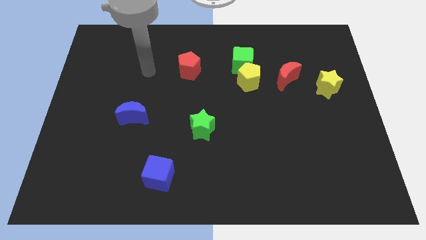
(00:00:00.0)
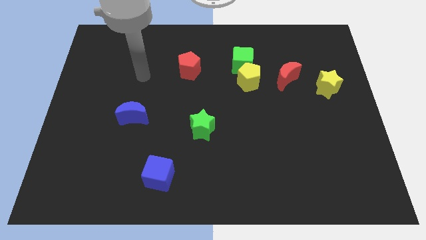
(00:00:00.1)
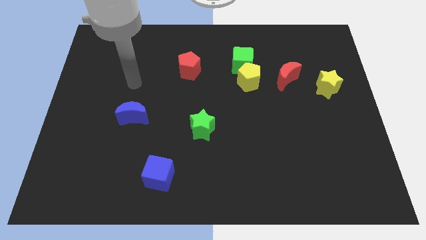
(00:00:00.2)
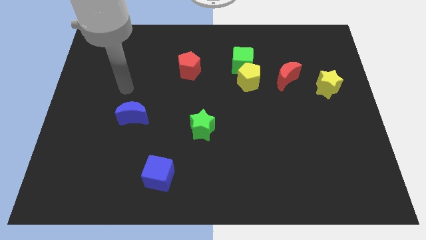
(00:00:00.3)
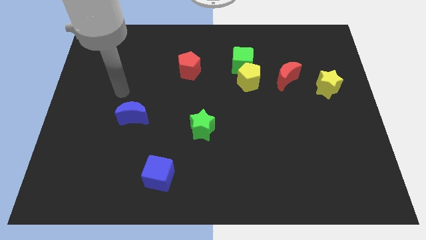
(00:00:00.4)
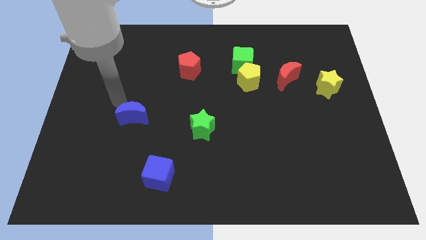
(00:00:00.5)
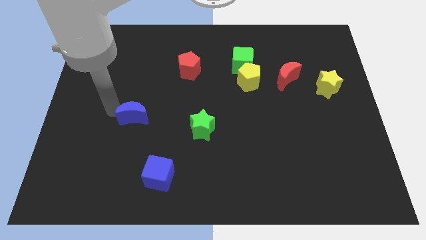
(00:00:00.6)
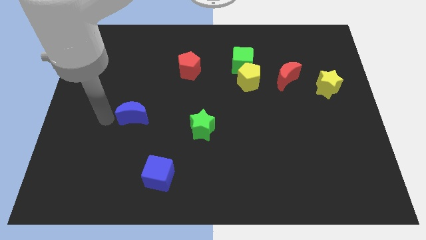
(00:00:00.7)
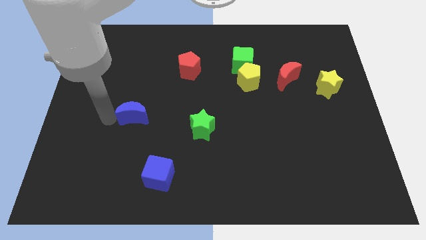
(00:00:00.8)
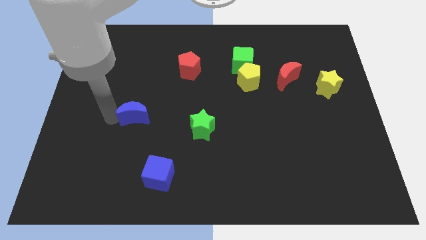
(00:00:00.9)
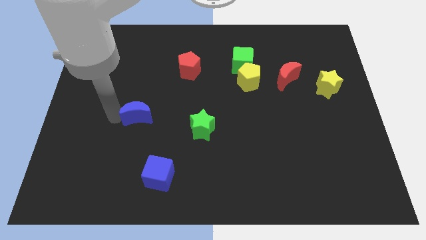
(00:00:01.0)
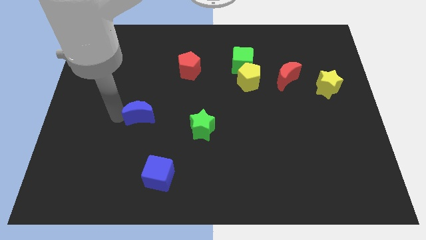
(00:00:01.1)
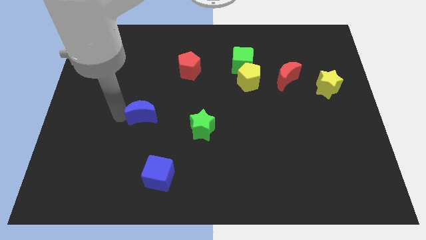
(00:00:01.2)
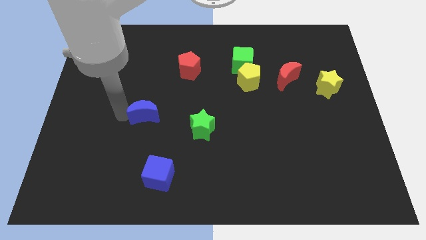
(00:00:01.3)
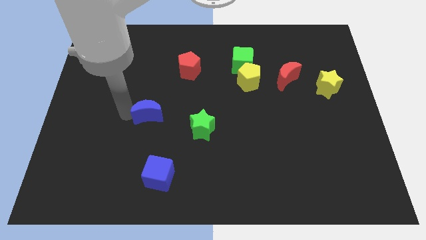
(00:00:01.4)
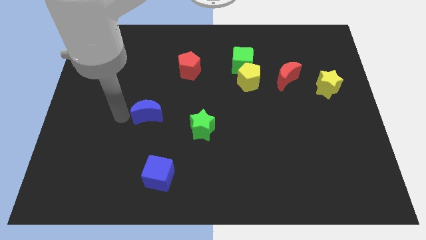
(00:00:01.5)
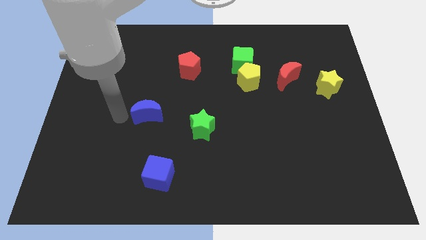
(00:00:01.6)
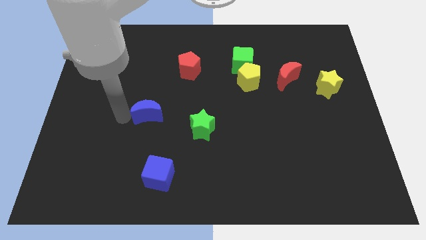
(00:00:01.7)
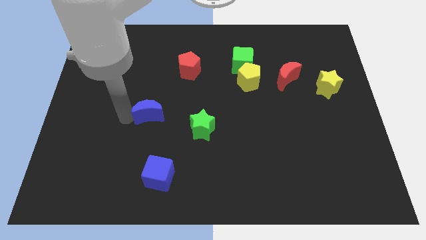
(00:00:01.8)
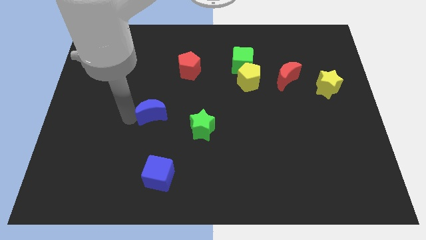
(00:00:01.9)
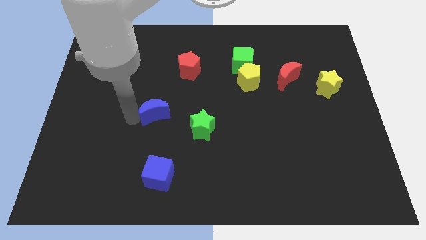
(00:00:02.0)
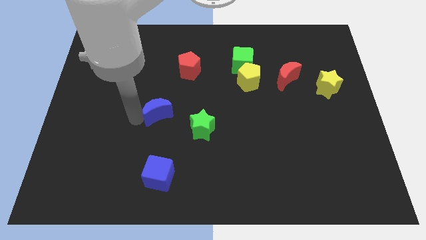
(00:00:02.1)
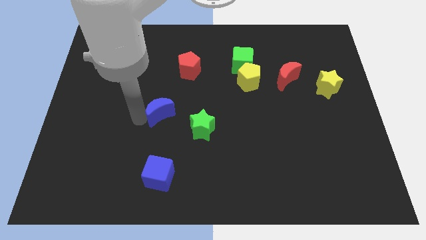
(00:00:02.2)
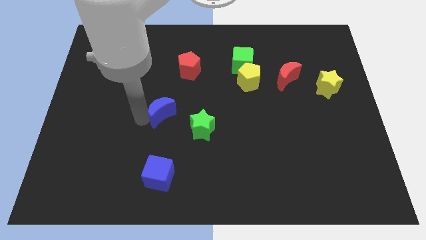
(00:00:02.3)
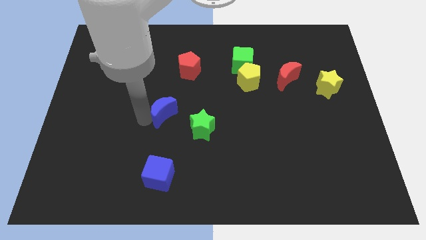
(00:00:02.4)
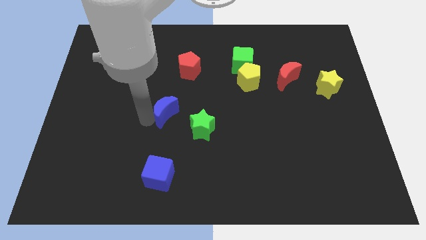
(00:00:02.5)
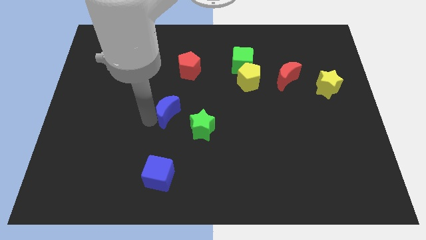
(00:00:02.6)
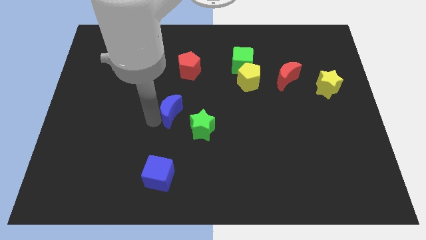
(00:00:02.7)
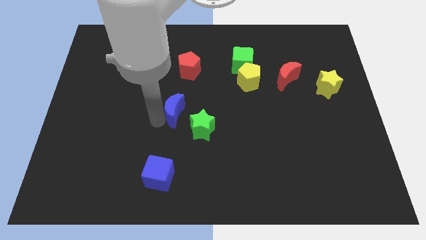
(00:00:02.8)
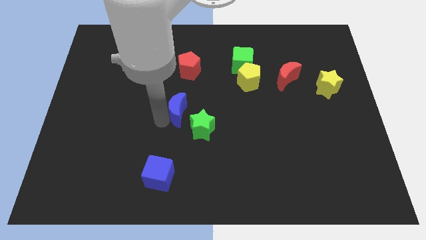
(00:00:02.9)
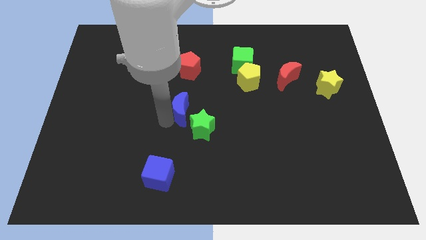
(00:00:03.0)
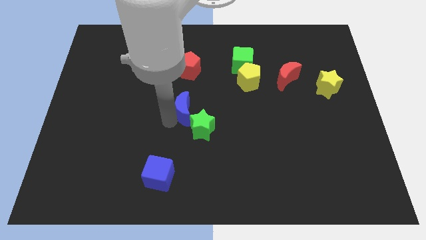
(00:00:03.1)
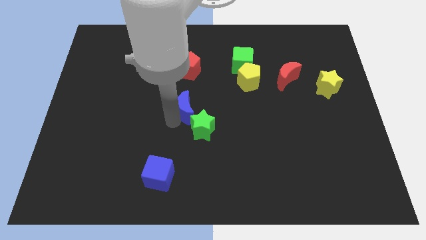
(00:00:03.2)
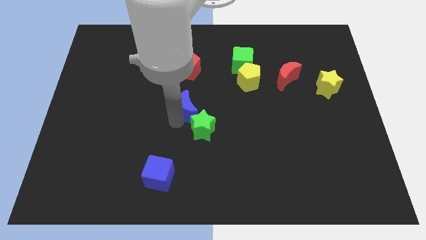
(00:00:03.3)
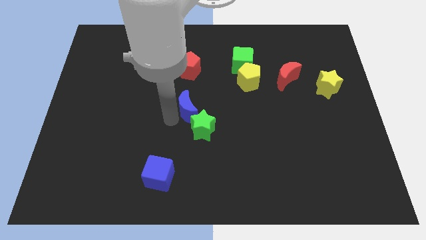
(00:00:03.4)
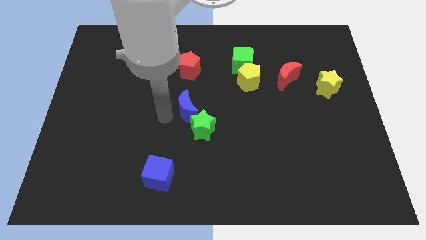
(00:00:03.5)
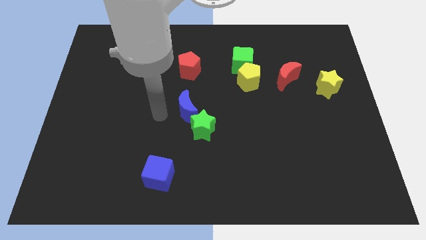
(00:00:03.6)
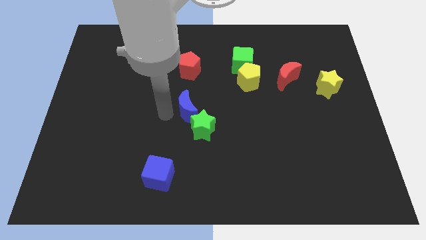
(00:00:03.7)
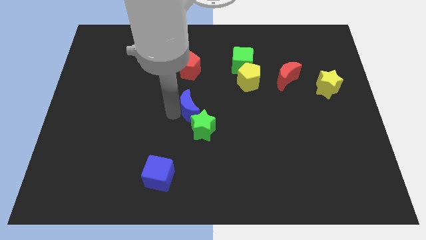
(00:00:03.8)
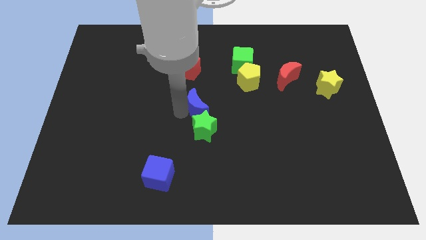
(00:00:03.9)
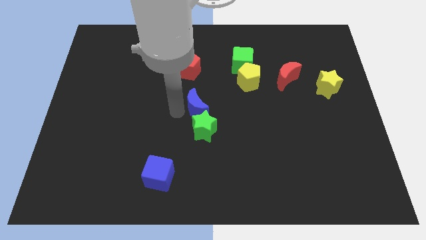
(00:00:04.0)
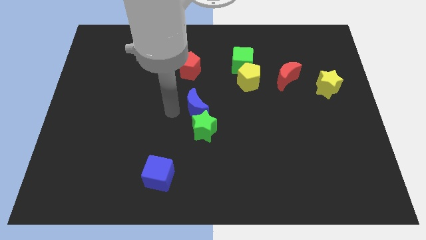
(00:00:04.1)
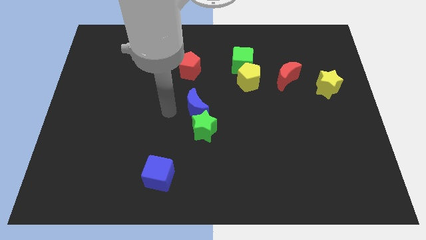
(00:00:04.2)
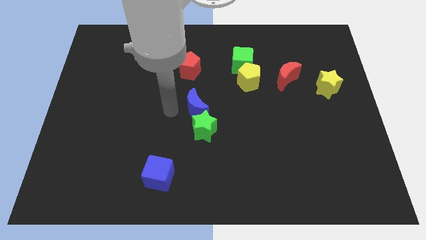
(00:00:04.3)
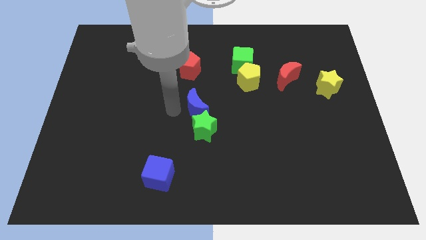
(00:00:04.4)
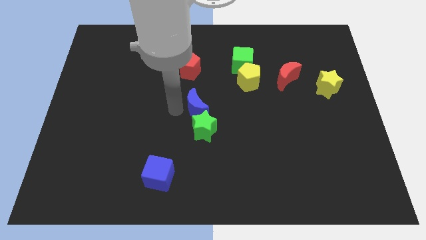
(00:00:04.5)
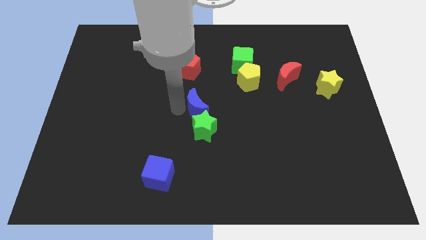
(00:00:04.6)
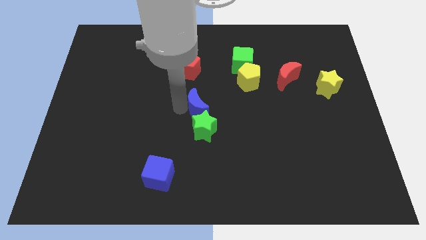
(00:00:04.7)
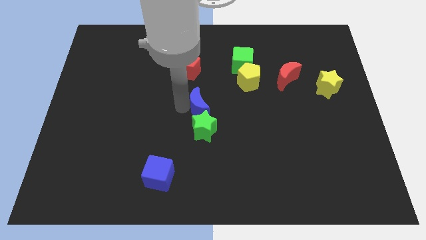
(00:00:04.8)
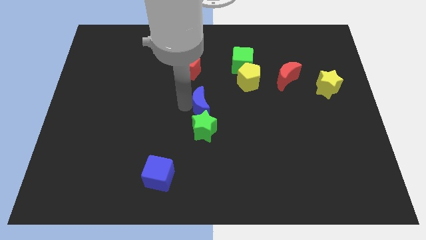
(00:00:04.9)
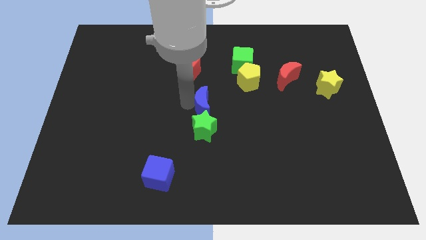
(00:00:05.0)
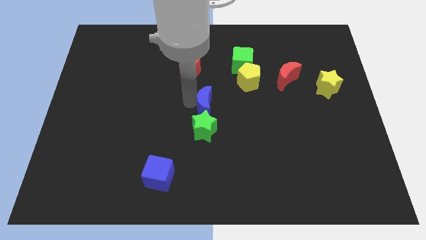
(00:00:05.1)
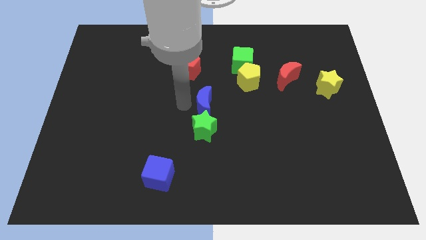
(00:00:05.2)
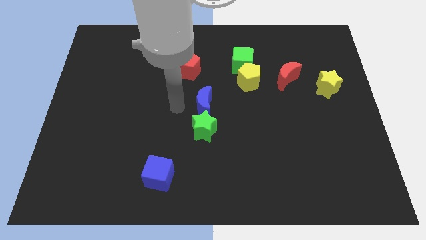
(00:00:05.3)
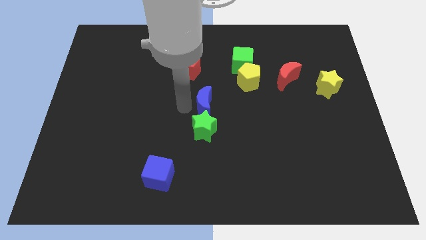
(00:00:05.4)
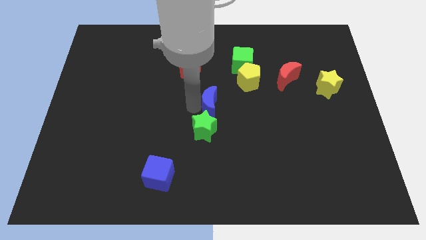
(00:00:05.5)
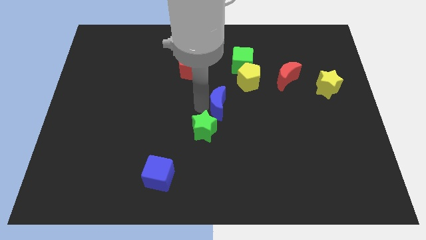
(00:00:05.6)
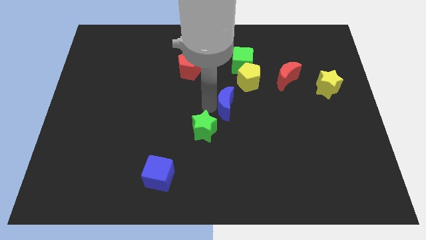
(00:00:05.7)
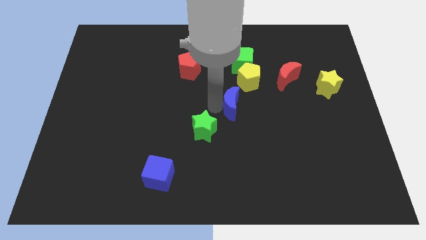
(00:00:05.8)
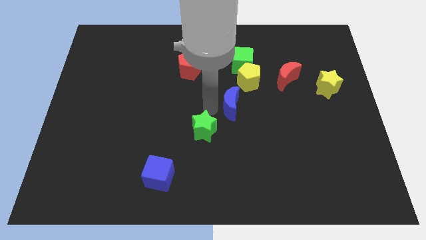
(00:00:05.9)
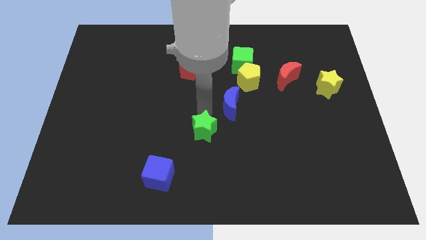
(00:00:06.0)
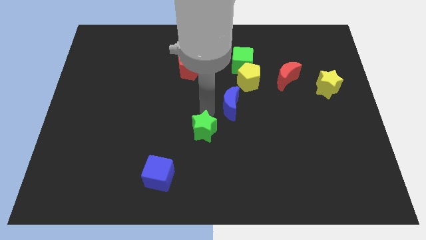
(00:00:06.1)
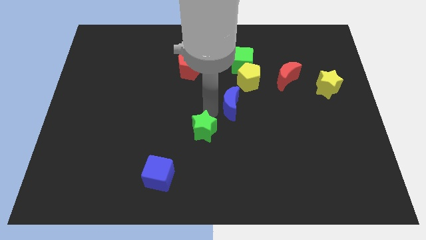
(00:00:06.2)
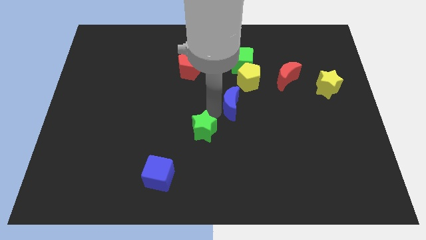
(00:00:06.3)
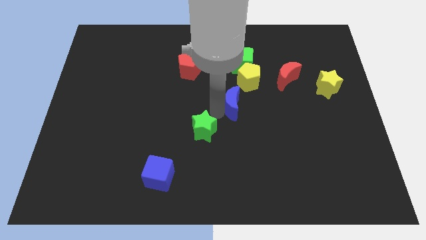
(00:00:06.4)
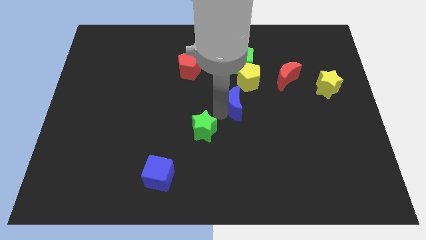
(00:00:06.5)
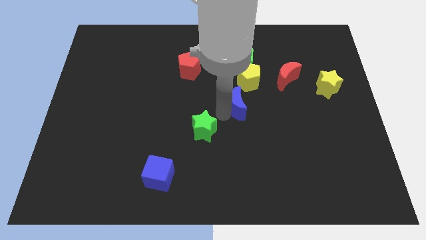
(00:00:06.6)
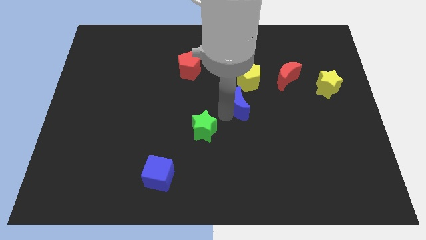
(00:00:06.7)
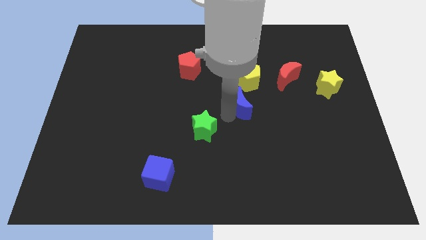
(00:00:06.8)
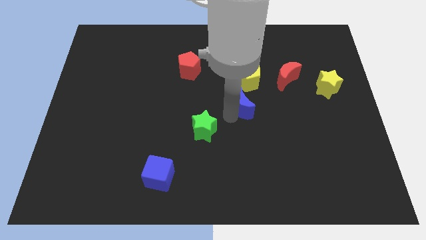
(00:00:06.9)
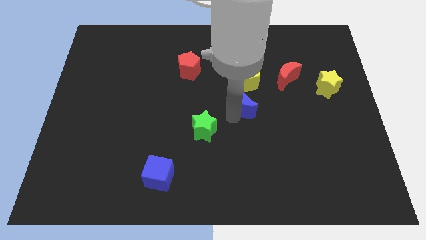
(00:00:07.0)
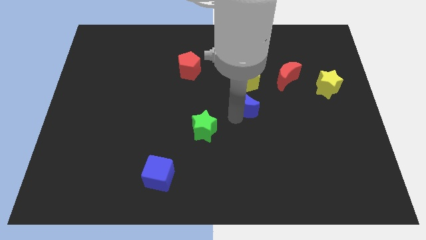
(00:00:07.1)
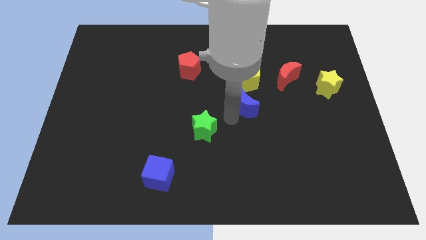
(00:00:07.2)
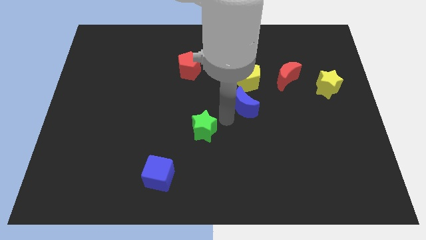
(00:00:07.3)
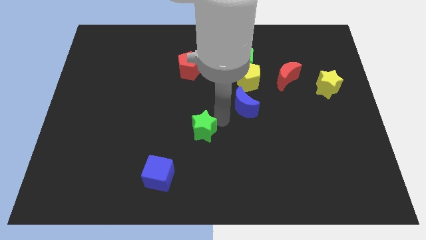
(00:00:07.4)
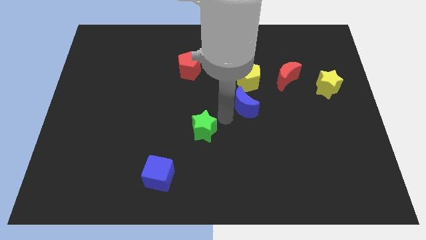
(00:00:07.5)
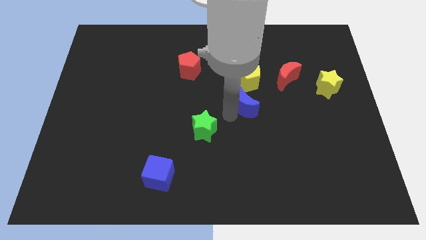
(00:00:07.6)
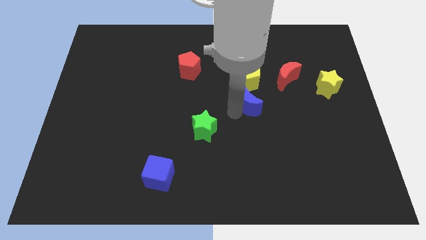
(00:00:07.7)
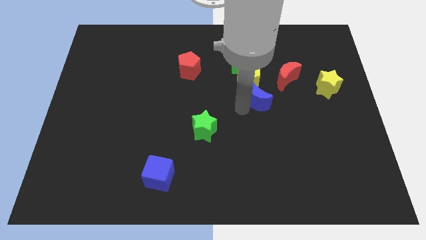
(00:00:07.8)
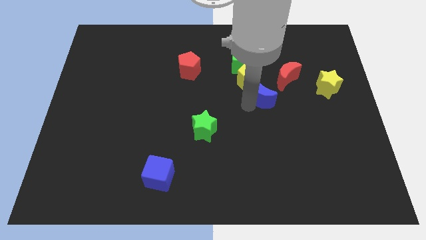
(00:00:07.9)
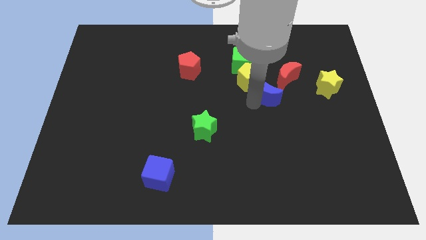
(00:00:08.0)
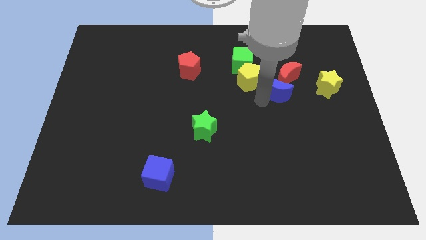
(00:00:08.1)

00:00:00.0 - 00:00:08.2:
push the blue moon close to the red moon
